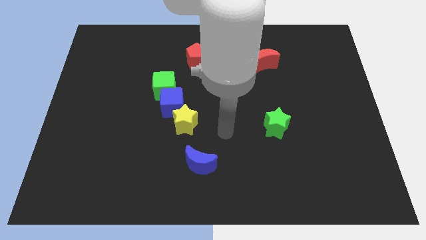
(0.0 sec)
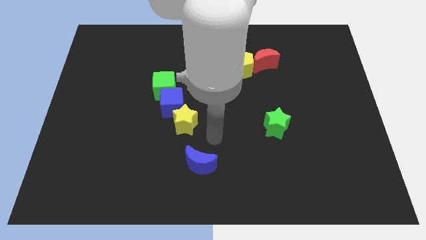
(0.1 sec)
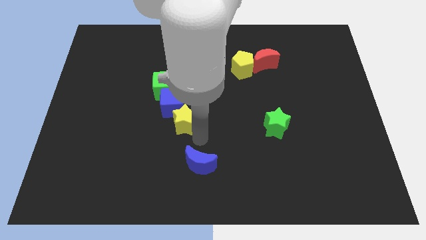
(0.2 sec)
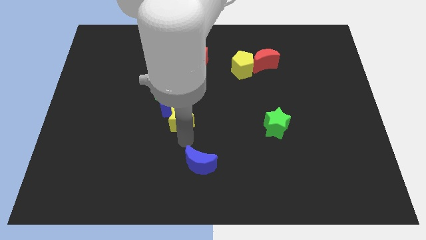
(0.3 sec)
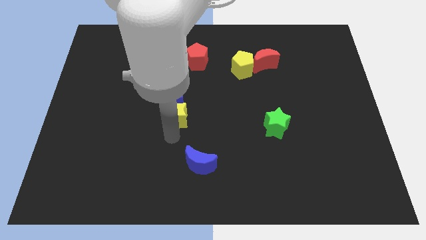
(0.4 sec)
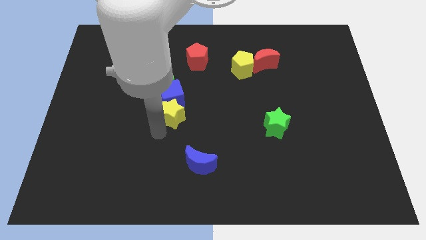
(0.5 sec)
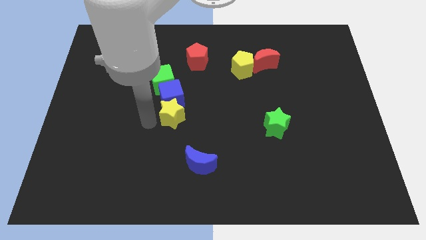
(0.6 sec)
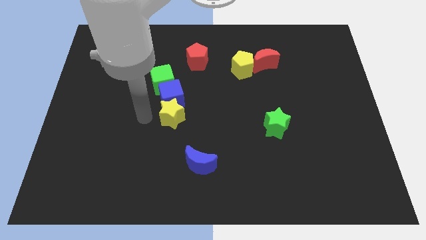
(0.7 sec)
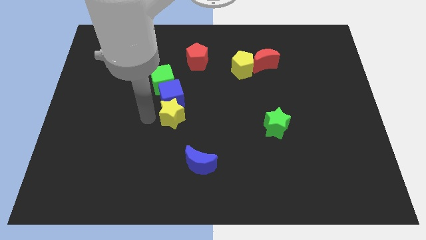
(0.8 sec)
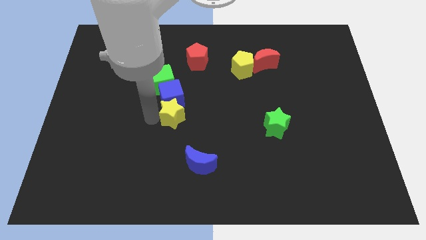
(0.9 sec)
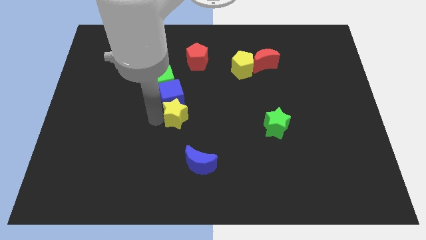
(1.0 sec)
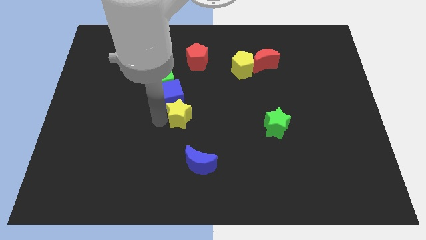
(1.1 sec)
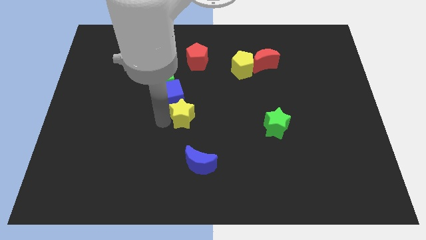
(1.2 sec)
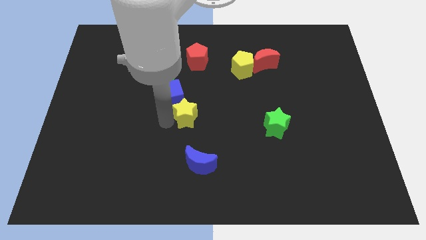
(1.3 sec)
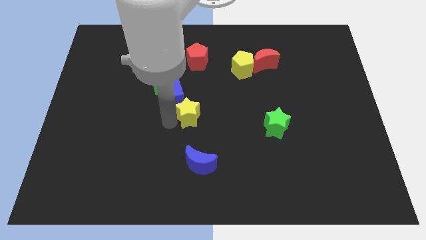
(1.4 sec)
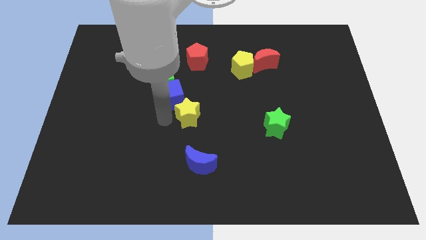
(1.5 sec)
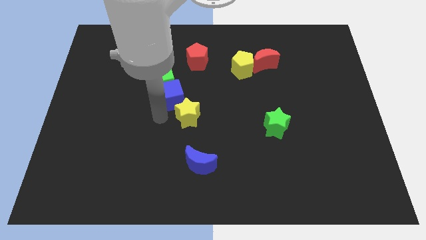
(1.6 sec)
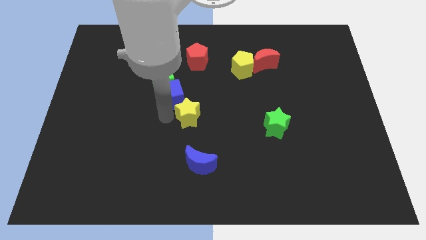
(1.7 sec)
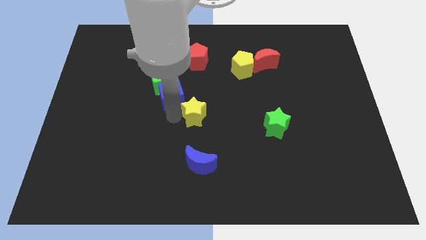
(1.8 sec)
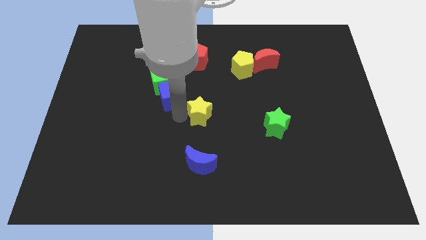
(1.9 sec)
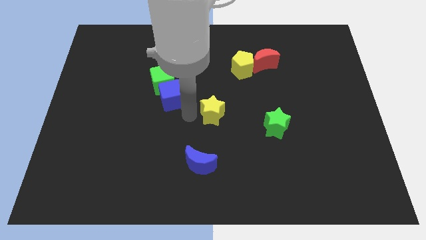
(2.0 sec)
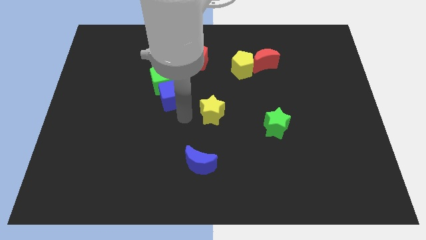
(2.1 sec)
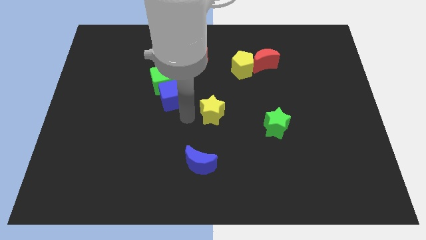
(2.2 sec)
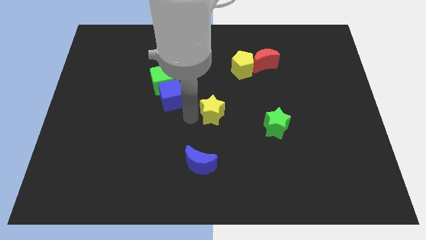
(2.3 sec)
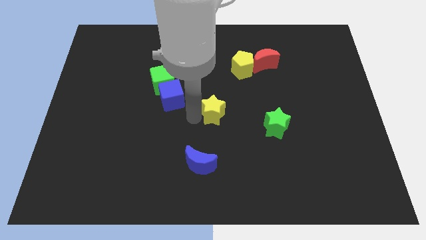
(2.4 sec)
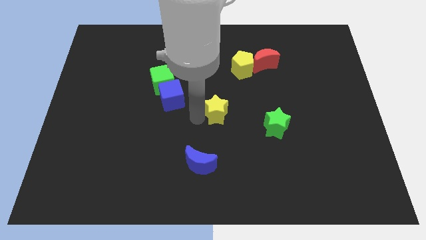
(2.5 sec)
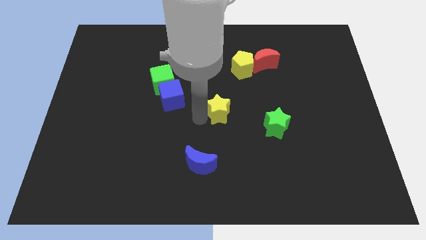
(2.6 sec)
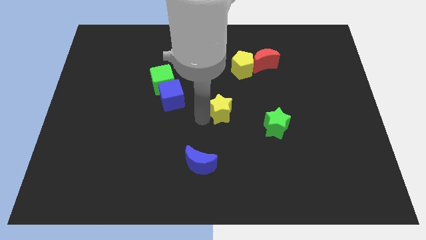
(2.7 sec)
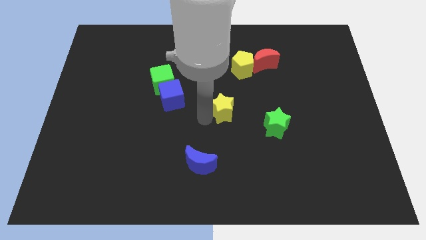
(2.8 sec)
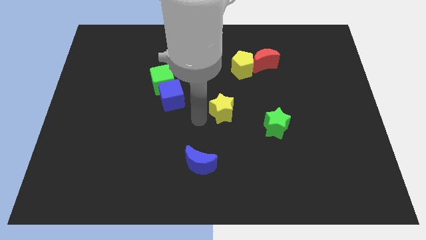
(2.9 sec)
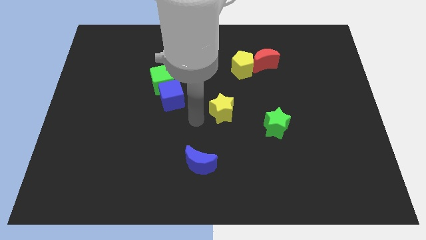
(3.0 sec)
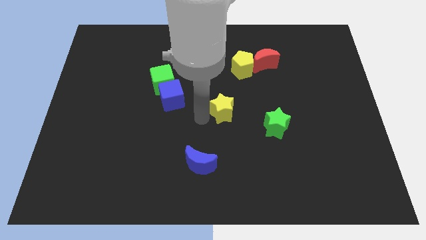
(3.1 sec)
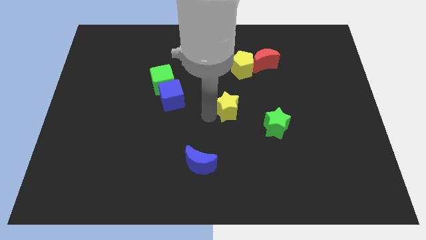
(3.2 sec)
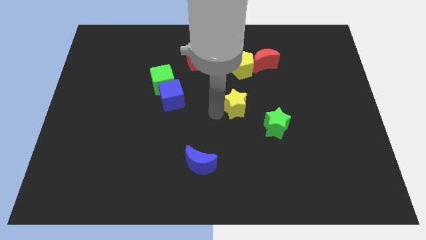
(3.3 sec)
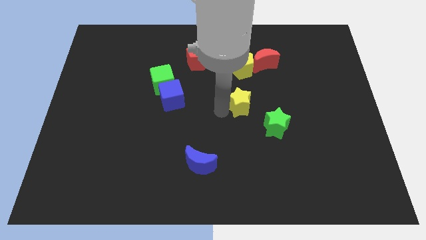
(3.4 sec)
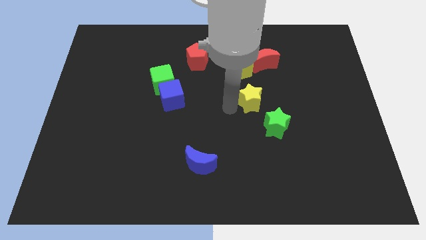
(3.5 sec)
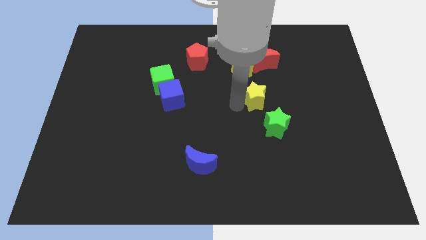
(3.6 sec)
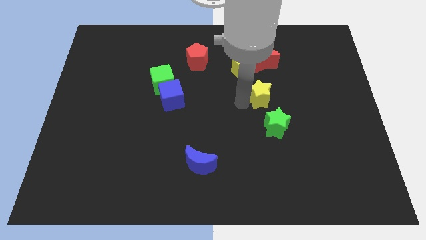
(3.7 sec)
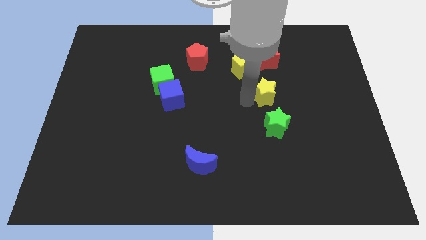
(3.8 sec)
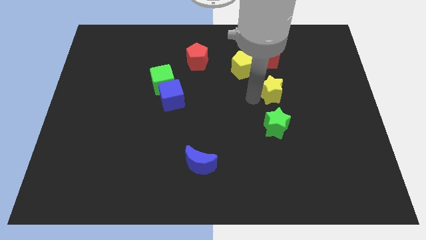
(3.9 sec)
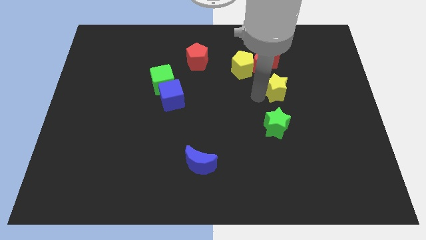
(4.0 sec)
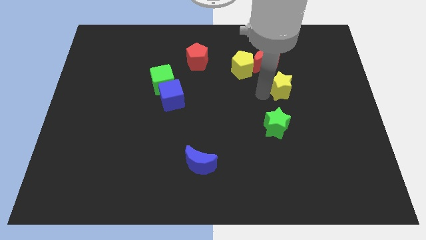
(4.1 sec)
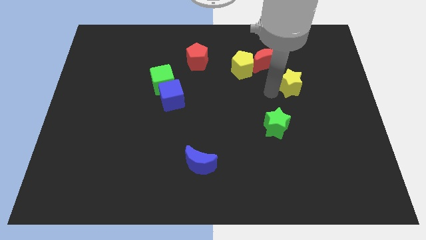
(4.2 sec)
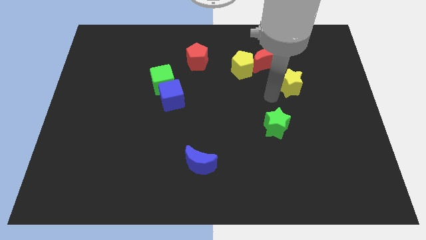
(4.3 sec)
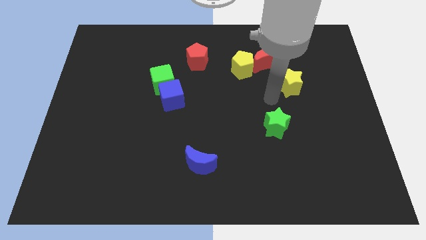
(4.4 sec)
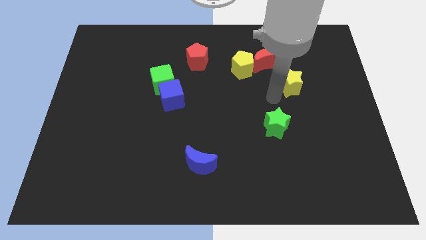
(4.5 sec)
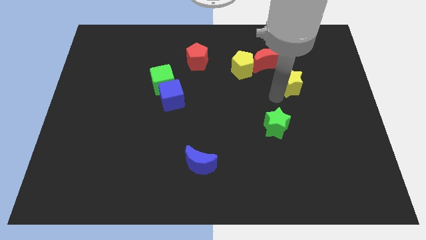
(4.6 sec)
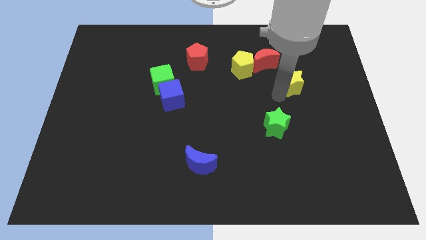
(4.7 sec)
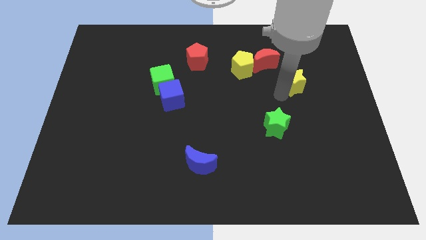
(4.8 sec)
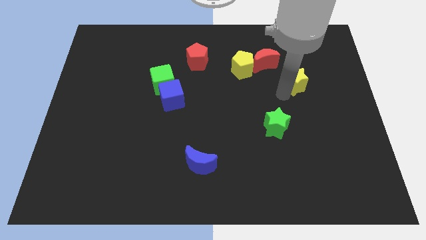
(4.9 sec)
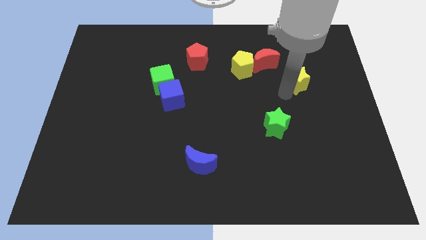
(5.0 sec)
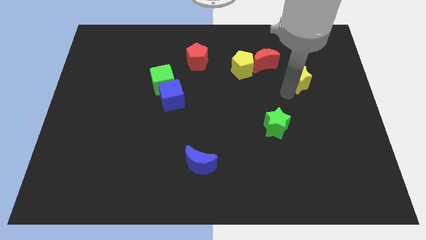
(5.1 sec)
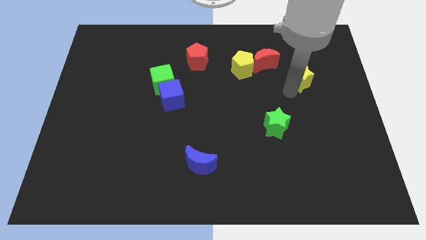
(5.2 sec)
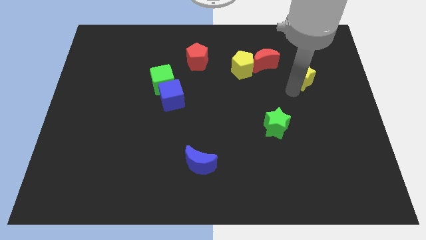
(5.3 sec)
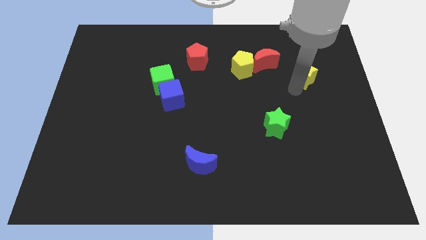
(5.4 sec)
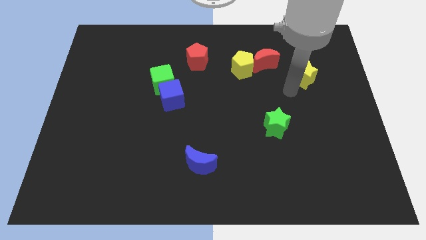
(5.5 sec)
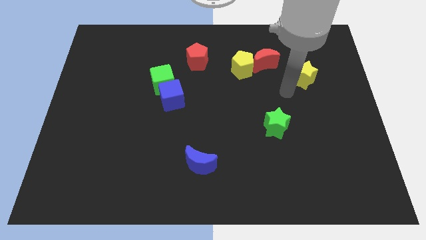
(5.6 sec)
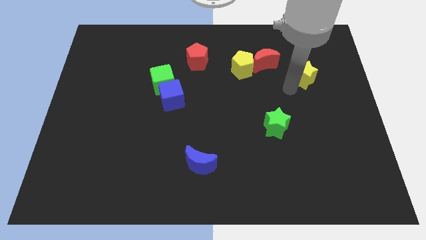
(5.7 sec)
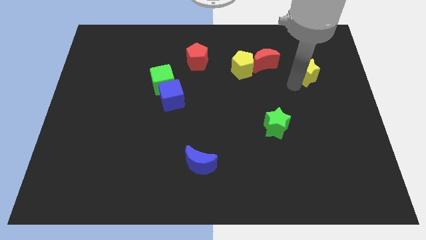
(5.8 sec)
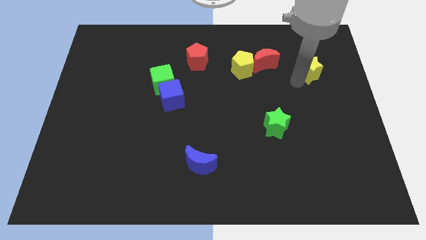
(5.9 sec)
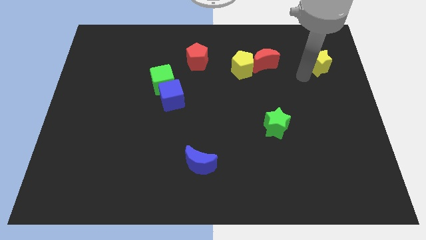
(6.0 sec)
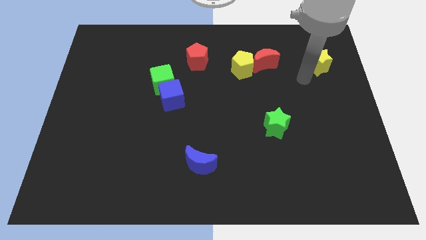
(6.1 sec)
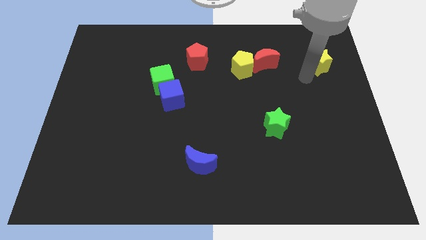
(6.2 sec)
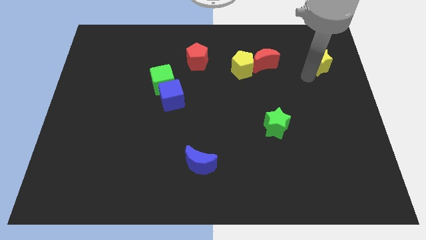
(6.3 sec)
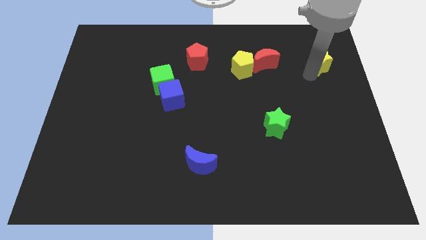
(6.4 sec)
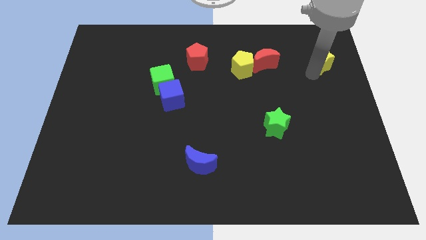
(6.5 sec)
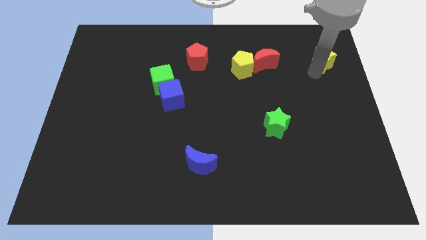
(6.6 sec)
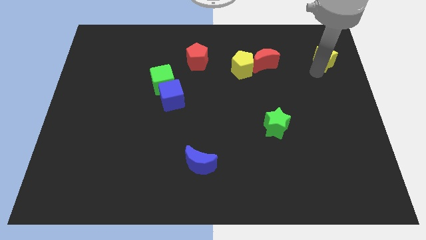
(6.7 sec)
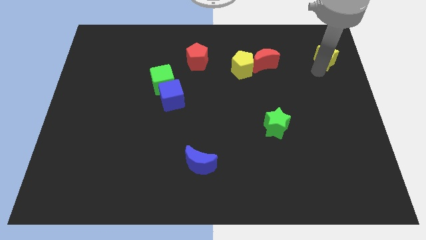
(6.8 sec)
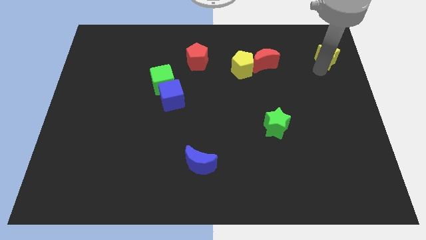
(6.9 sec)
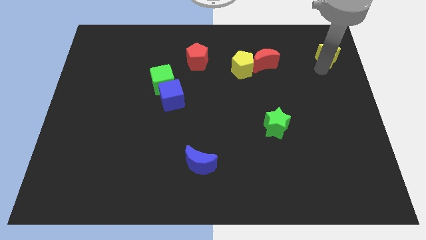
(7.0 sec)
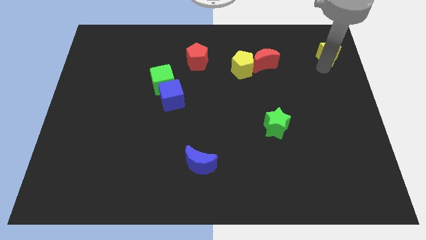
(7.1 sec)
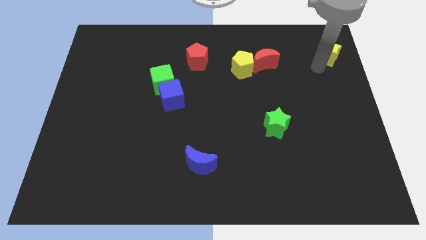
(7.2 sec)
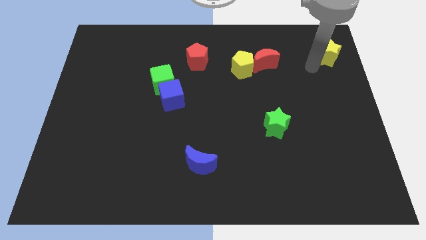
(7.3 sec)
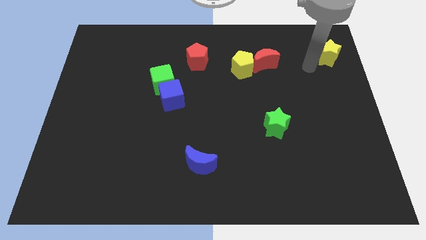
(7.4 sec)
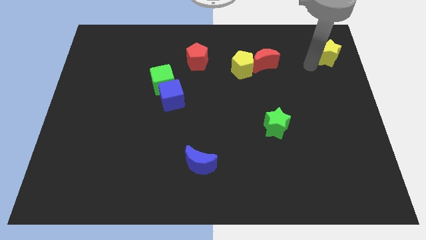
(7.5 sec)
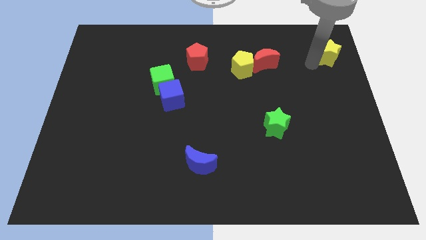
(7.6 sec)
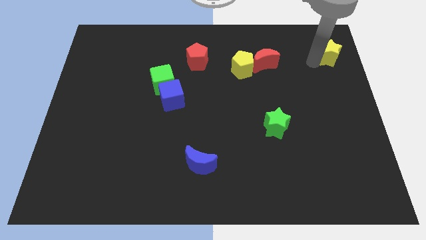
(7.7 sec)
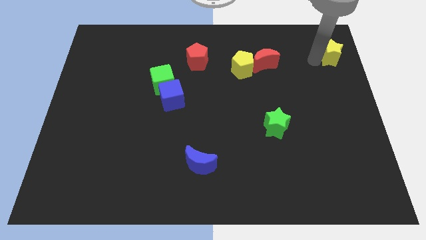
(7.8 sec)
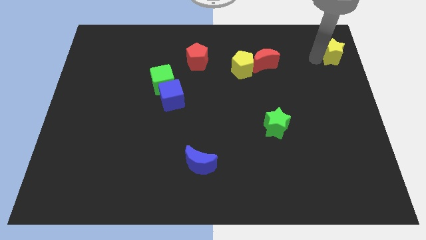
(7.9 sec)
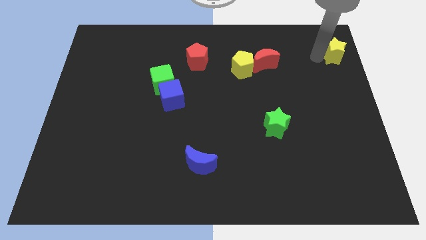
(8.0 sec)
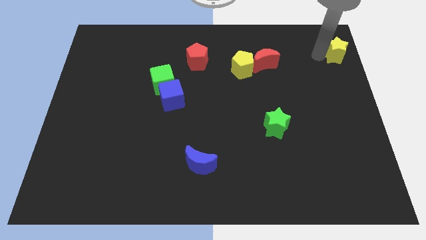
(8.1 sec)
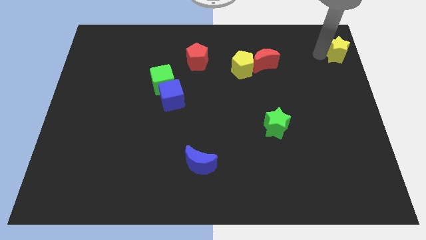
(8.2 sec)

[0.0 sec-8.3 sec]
put the yellow star to the top right corner
